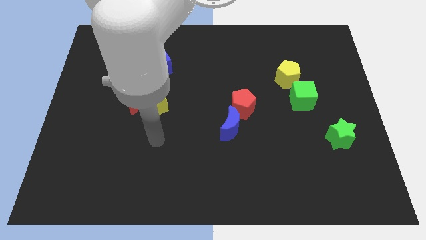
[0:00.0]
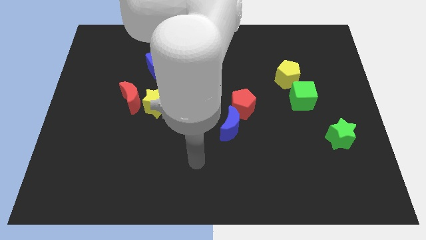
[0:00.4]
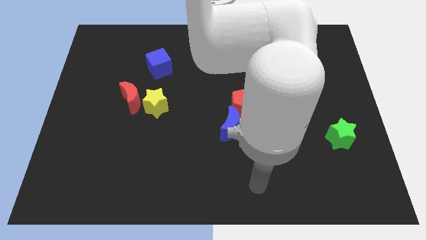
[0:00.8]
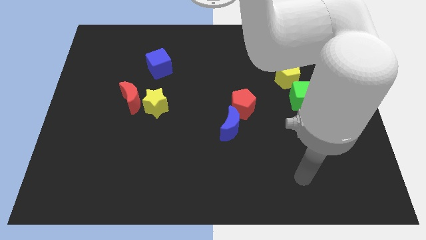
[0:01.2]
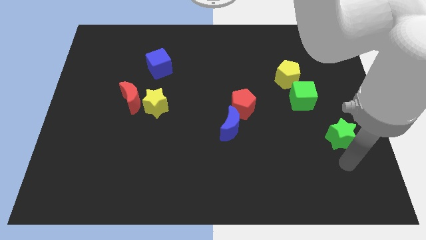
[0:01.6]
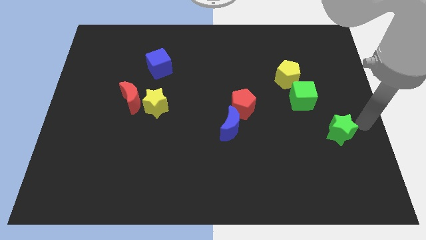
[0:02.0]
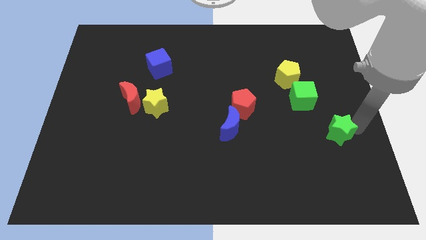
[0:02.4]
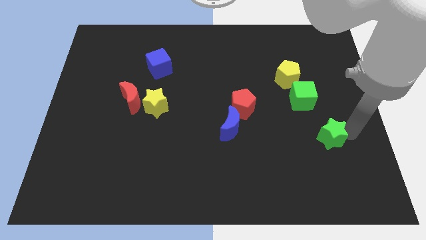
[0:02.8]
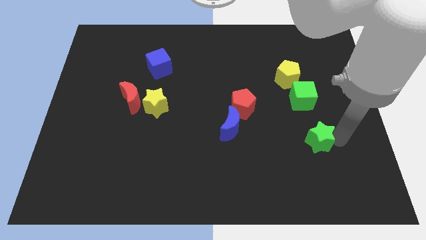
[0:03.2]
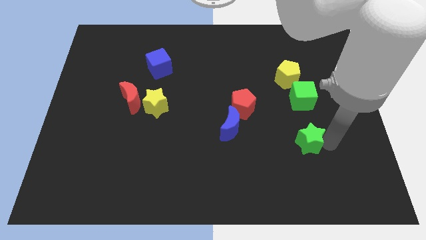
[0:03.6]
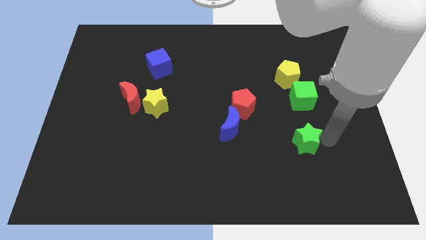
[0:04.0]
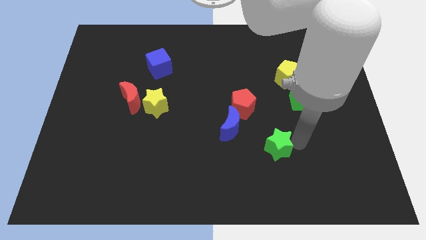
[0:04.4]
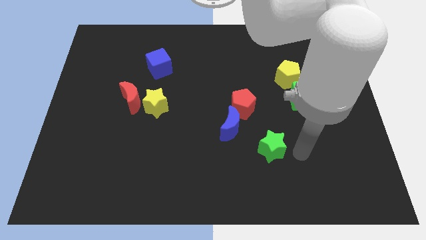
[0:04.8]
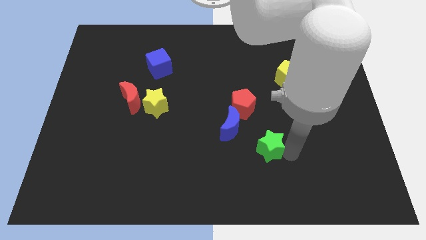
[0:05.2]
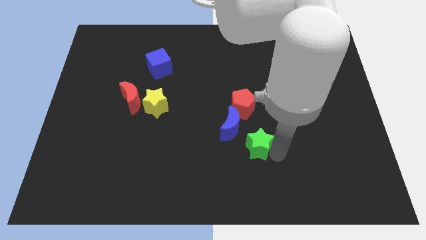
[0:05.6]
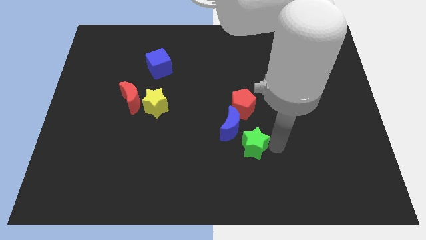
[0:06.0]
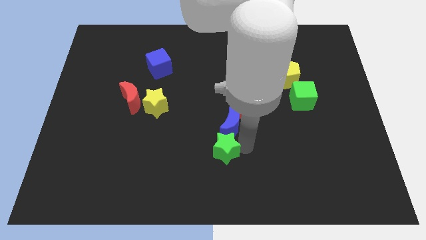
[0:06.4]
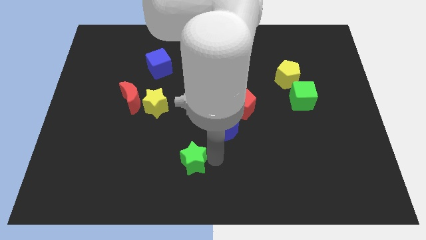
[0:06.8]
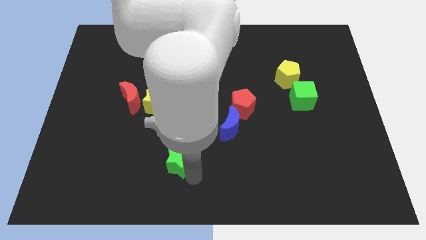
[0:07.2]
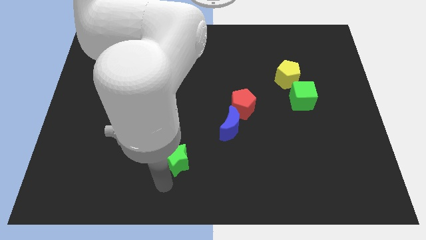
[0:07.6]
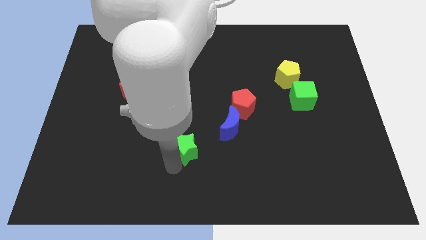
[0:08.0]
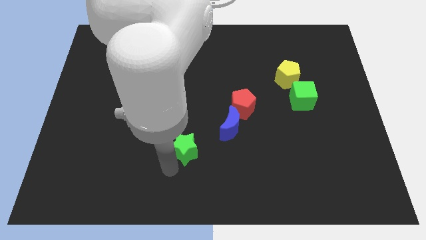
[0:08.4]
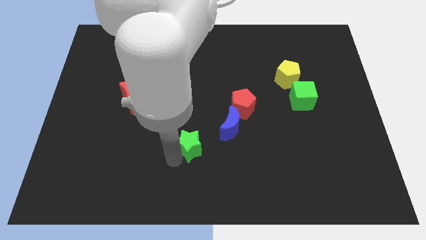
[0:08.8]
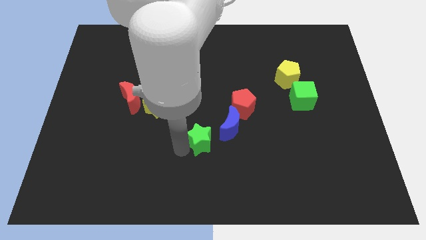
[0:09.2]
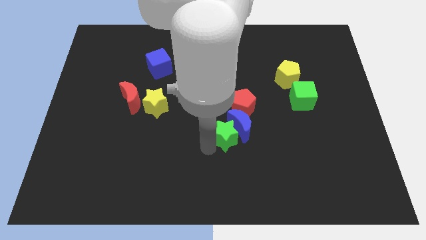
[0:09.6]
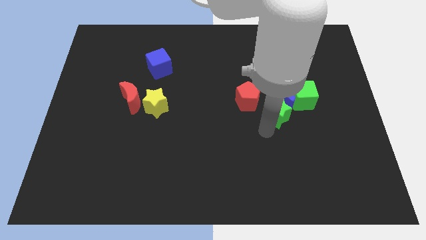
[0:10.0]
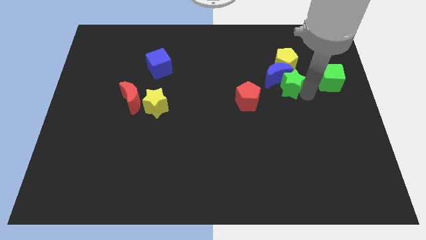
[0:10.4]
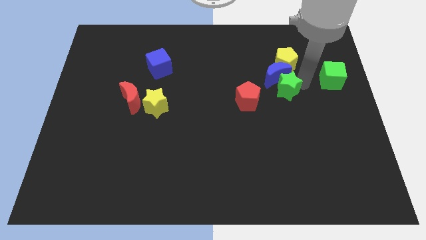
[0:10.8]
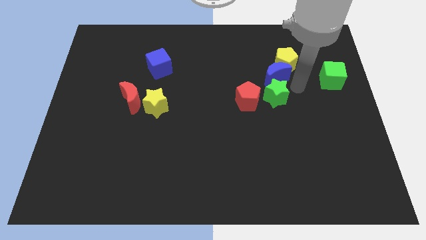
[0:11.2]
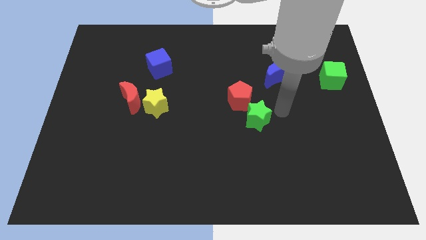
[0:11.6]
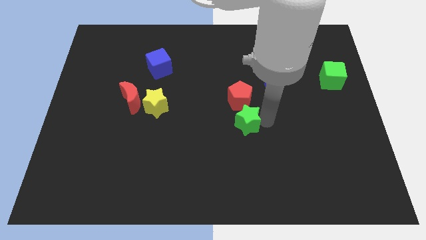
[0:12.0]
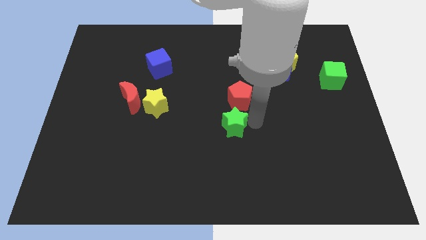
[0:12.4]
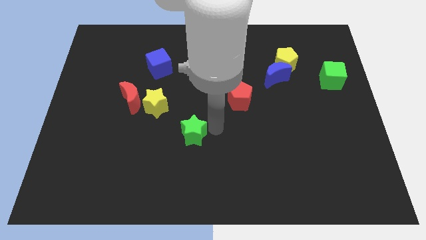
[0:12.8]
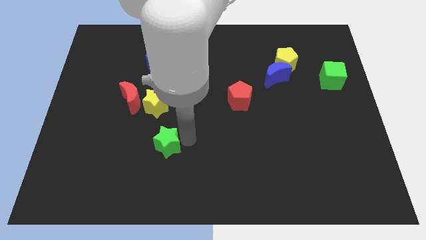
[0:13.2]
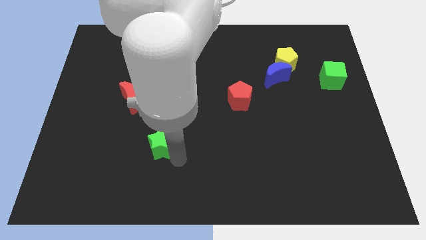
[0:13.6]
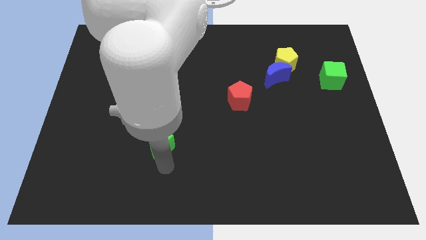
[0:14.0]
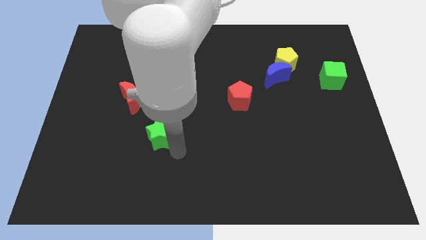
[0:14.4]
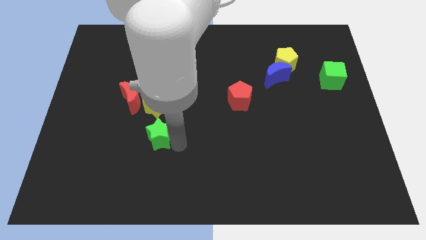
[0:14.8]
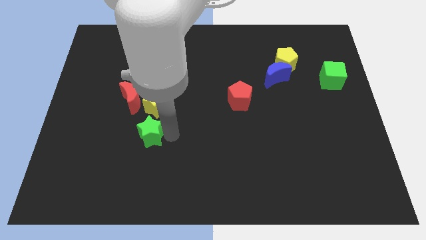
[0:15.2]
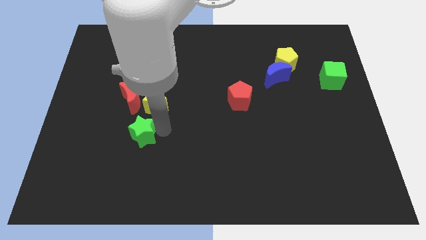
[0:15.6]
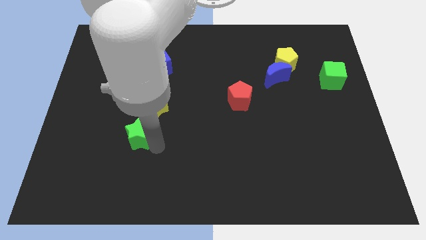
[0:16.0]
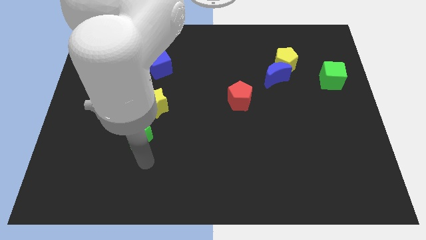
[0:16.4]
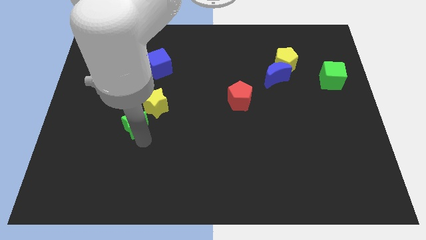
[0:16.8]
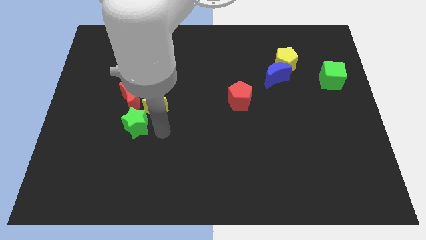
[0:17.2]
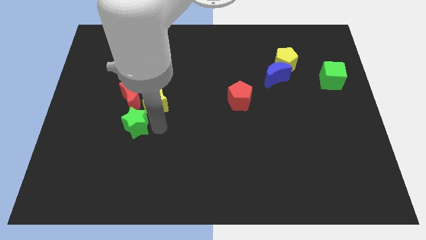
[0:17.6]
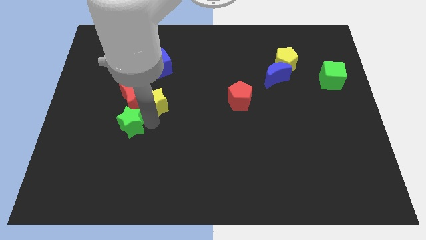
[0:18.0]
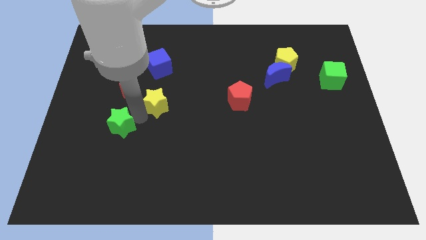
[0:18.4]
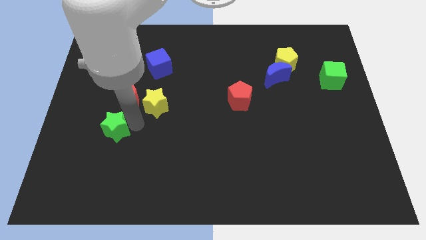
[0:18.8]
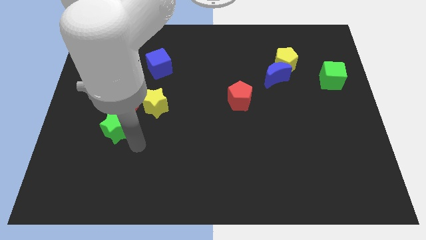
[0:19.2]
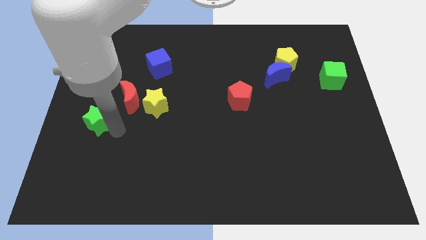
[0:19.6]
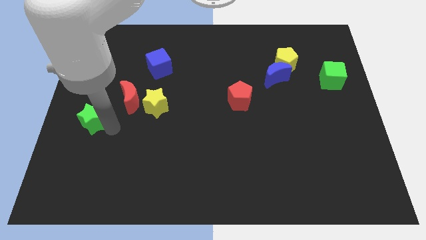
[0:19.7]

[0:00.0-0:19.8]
put the green star to the left side of the board

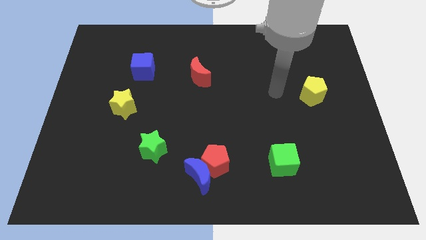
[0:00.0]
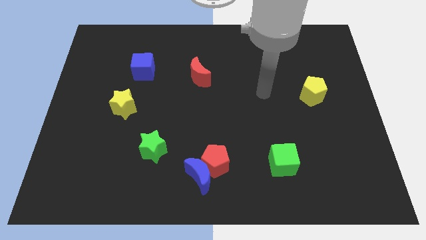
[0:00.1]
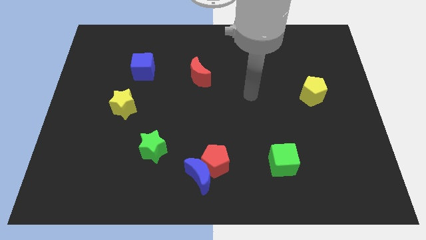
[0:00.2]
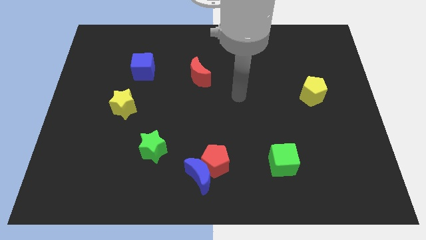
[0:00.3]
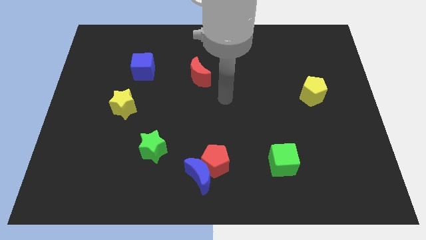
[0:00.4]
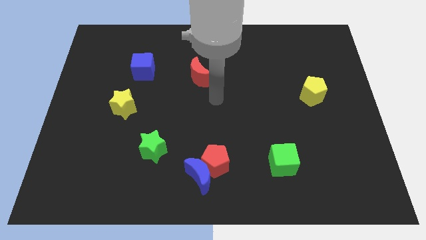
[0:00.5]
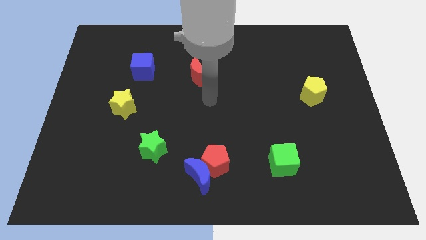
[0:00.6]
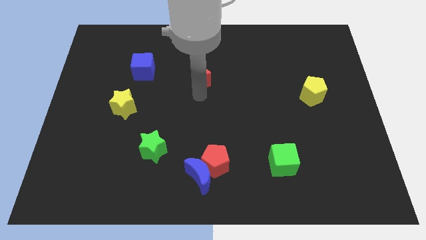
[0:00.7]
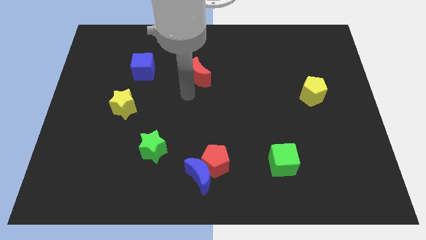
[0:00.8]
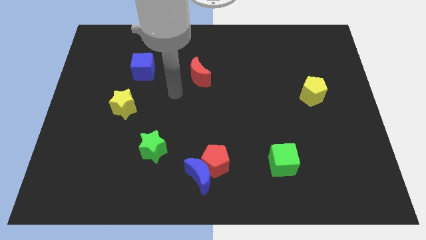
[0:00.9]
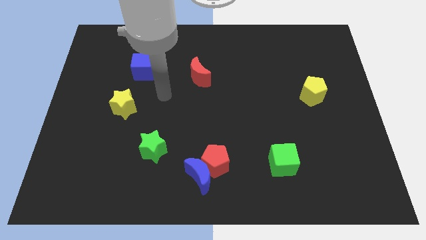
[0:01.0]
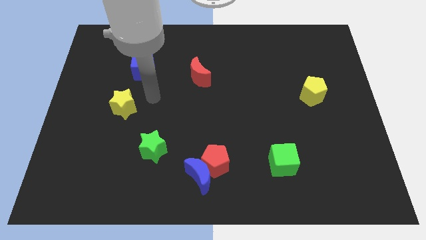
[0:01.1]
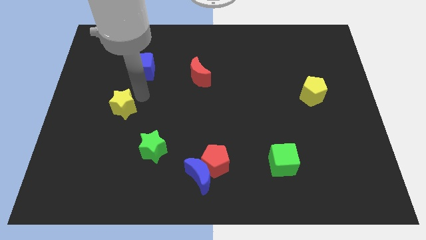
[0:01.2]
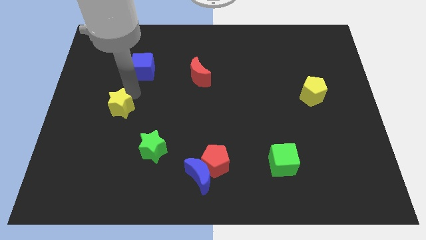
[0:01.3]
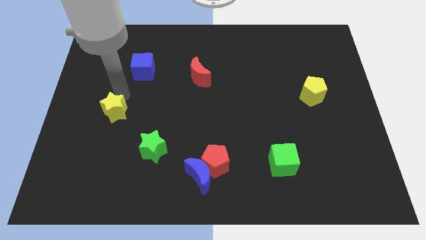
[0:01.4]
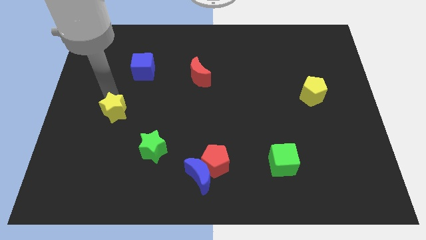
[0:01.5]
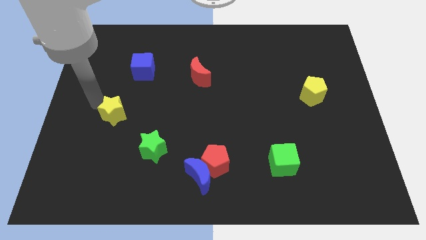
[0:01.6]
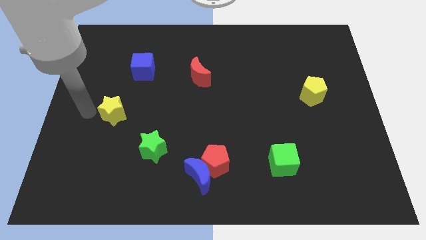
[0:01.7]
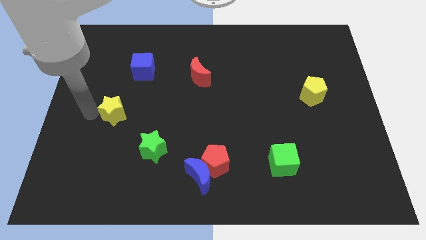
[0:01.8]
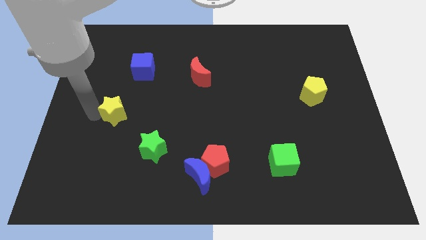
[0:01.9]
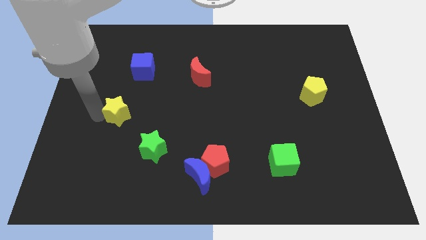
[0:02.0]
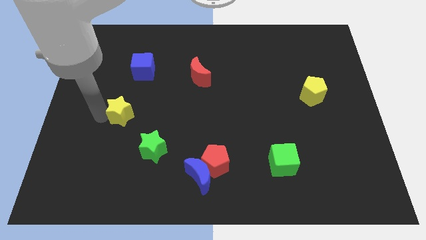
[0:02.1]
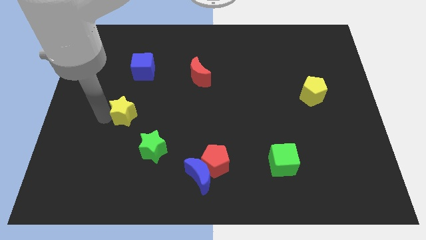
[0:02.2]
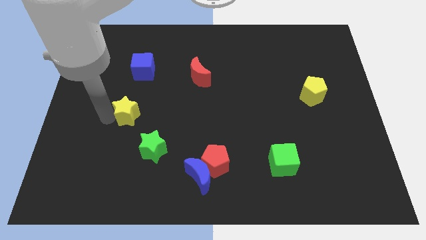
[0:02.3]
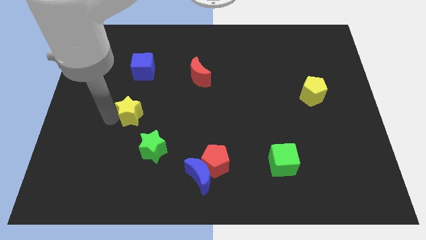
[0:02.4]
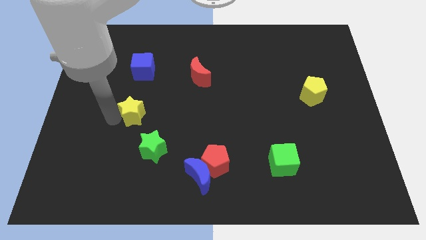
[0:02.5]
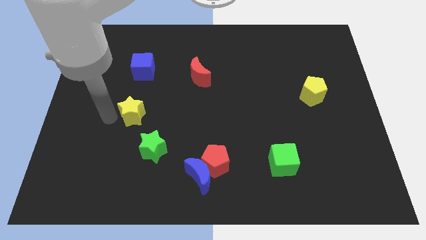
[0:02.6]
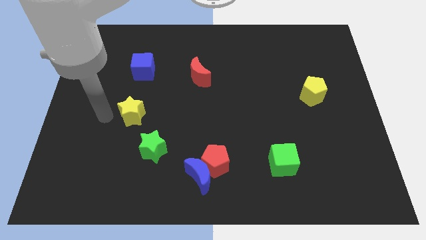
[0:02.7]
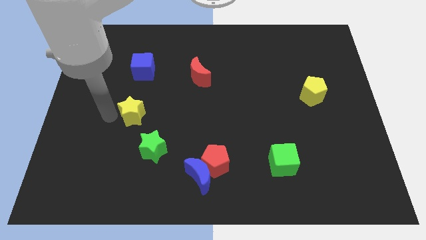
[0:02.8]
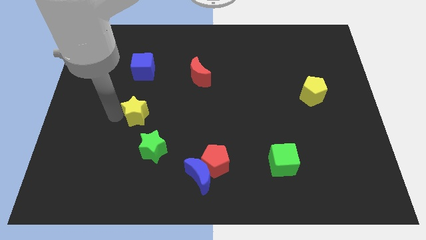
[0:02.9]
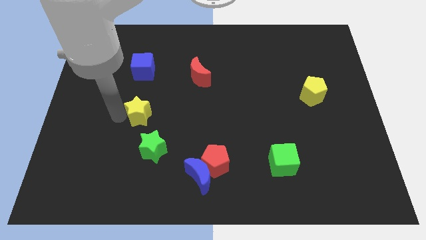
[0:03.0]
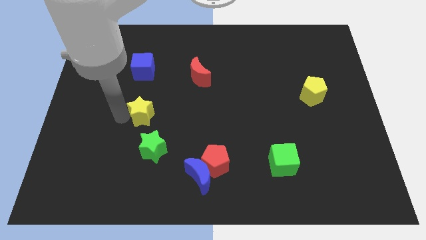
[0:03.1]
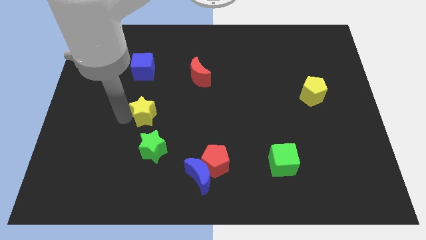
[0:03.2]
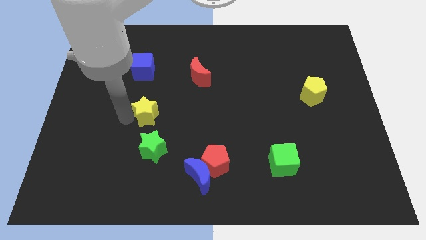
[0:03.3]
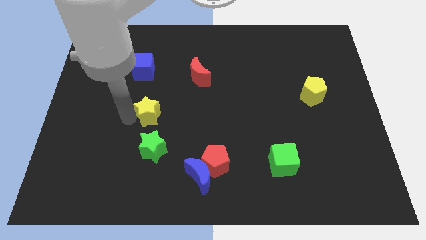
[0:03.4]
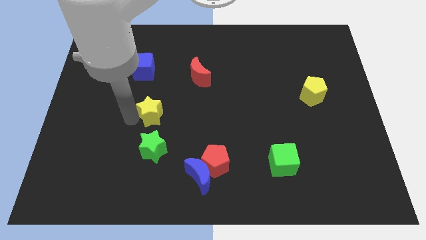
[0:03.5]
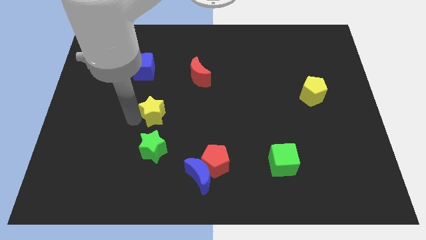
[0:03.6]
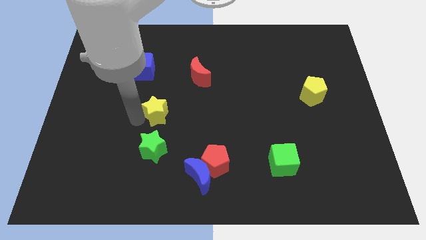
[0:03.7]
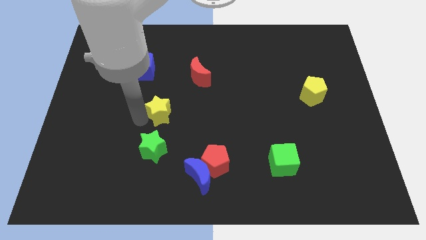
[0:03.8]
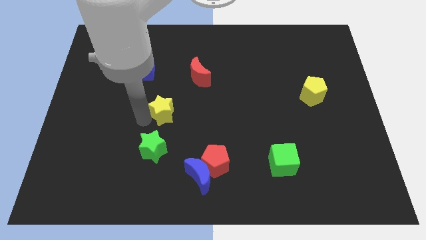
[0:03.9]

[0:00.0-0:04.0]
put the yellow star to the middle of the board
